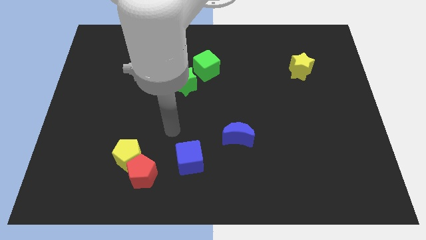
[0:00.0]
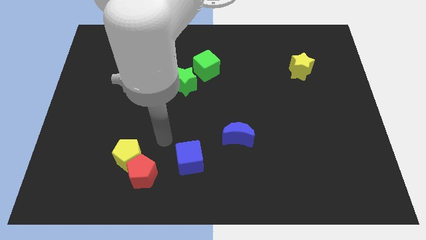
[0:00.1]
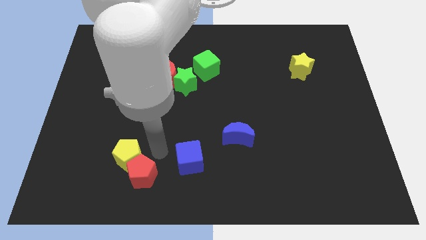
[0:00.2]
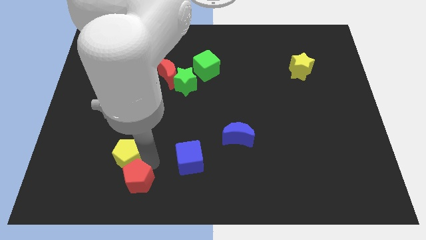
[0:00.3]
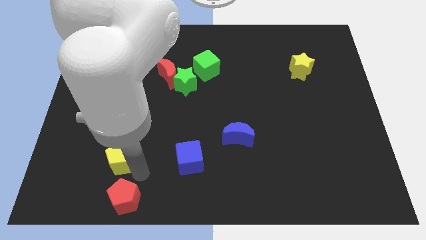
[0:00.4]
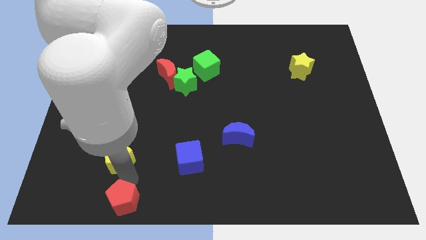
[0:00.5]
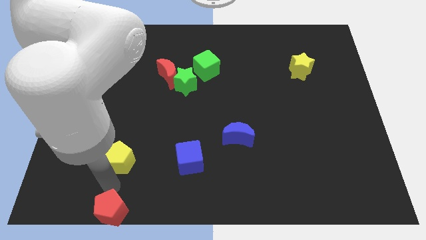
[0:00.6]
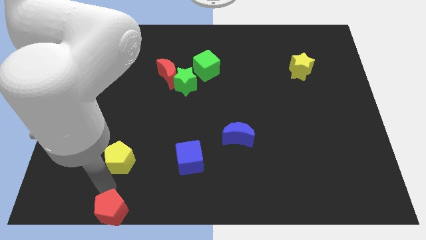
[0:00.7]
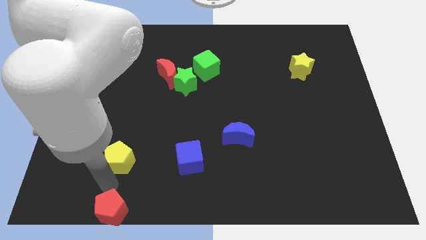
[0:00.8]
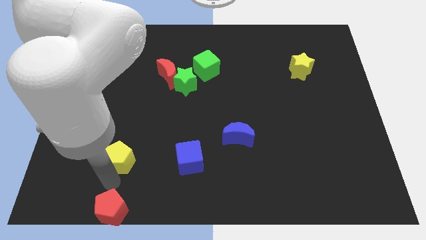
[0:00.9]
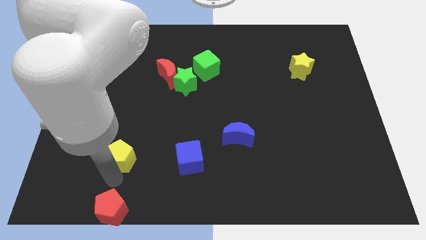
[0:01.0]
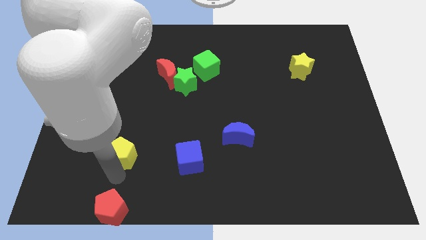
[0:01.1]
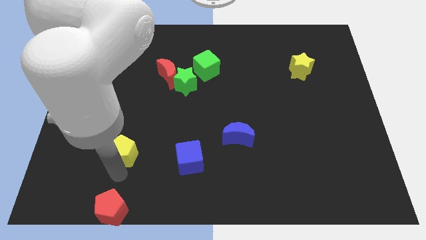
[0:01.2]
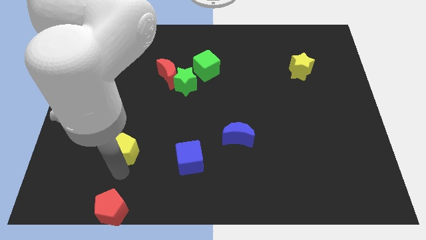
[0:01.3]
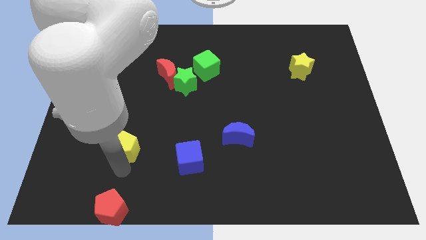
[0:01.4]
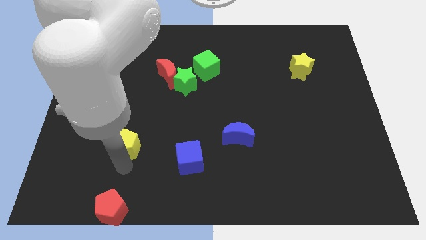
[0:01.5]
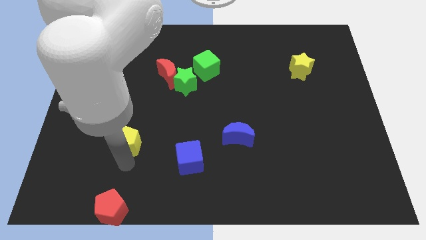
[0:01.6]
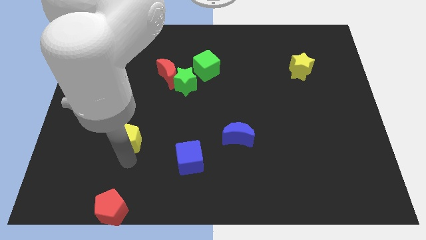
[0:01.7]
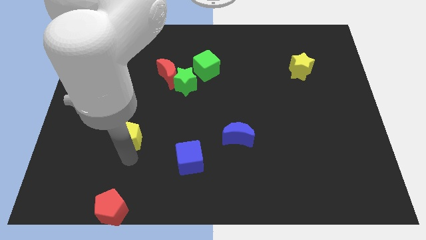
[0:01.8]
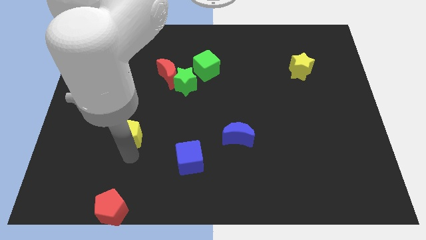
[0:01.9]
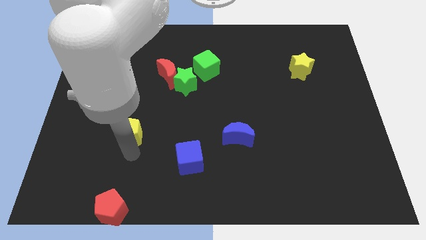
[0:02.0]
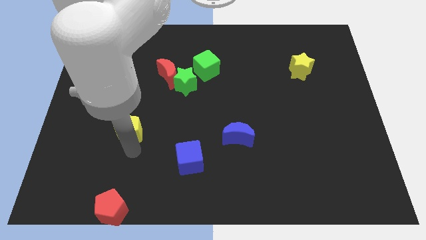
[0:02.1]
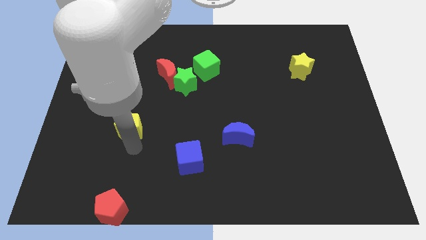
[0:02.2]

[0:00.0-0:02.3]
slide the yellow pentagon a little up

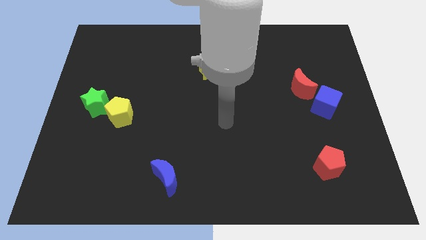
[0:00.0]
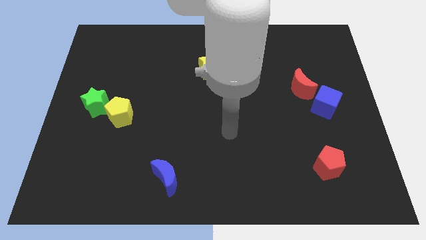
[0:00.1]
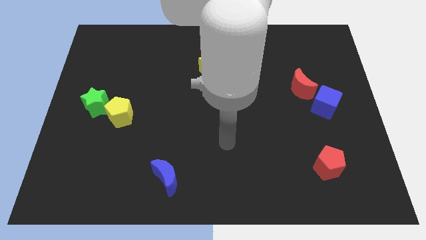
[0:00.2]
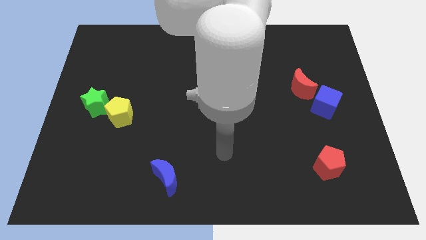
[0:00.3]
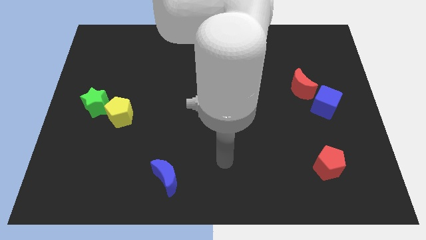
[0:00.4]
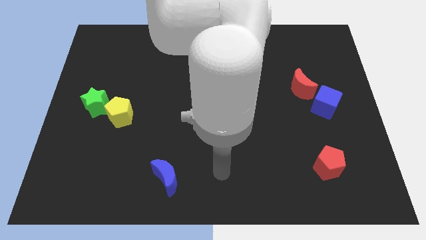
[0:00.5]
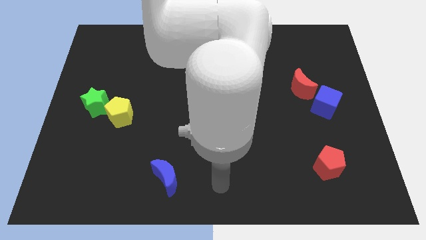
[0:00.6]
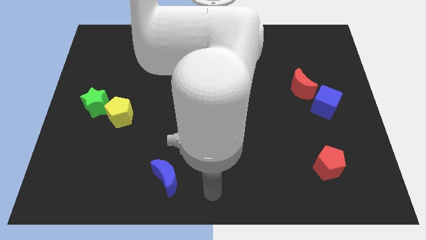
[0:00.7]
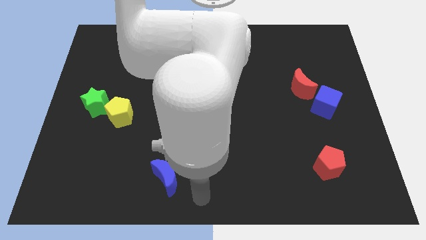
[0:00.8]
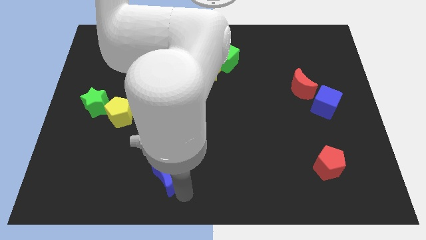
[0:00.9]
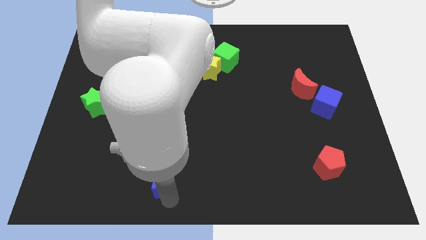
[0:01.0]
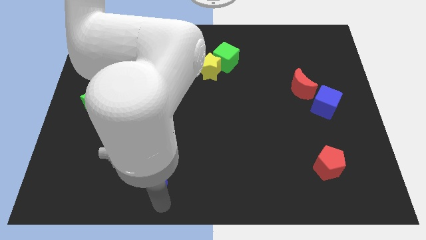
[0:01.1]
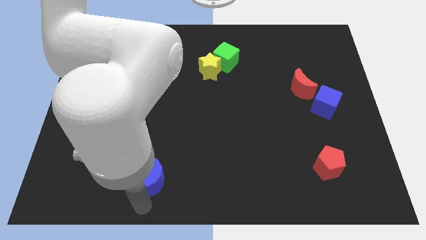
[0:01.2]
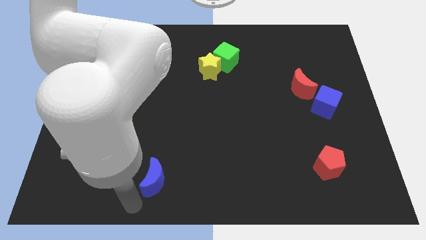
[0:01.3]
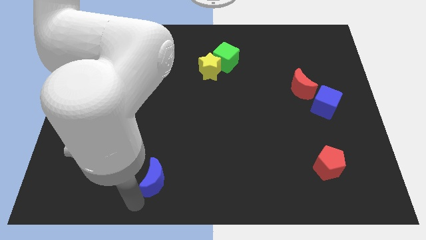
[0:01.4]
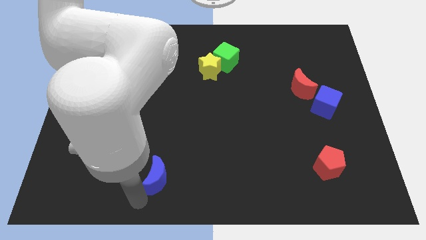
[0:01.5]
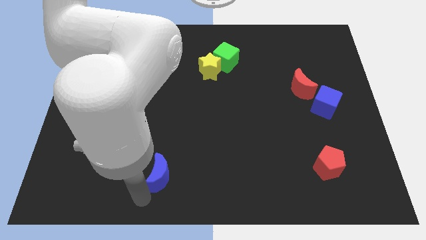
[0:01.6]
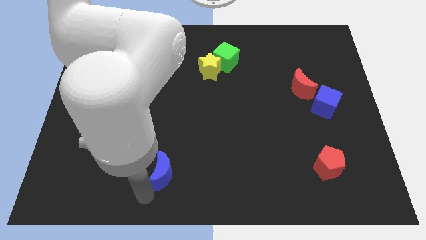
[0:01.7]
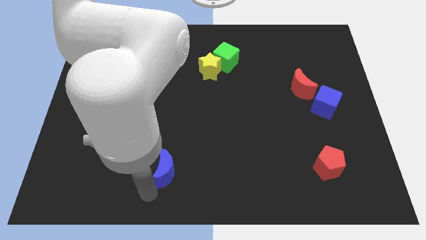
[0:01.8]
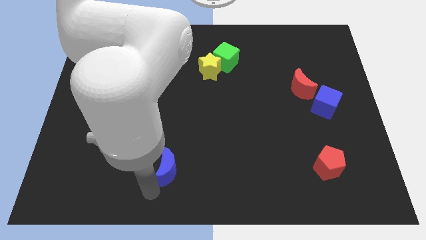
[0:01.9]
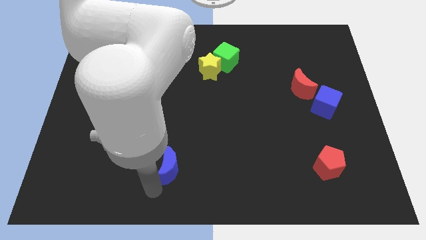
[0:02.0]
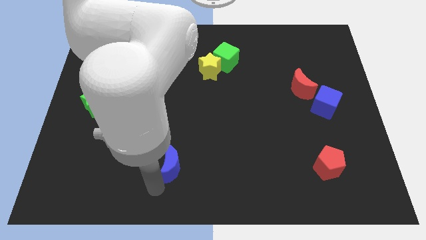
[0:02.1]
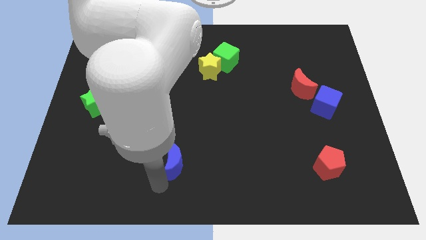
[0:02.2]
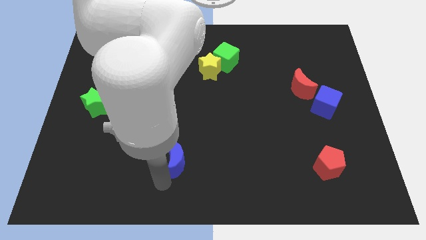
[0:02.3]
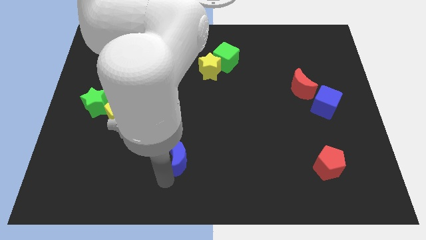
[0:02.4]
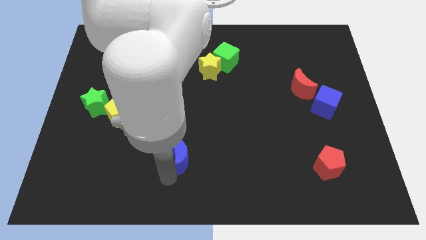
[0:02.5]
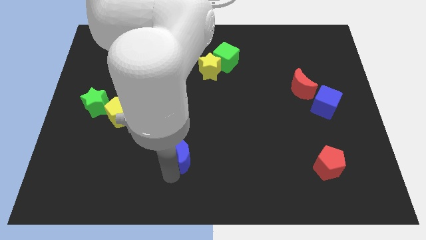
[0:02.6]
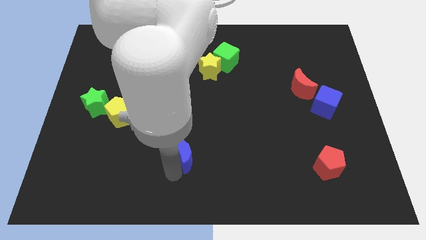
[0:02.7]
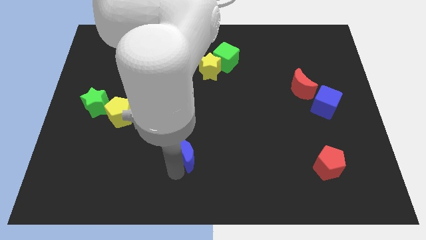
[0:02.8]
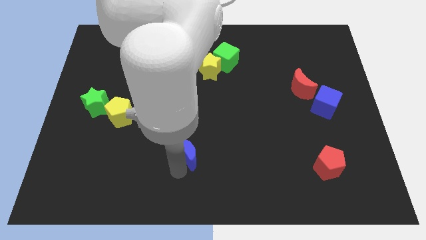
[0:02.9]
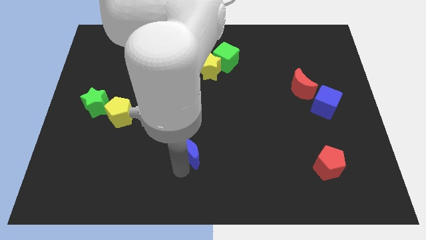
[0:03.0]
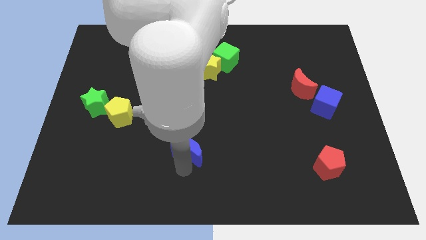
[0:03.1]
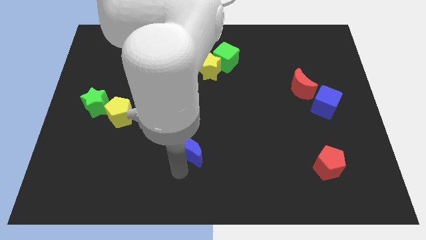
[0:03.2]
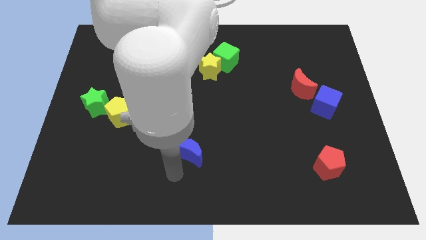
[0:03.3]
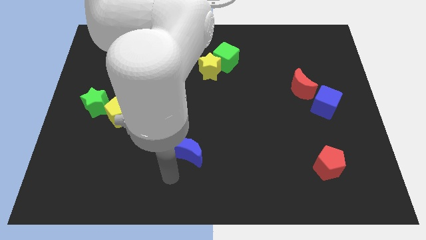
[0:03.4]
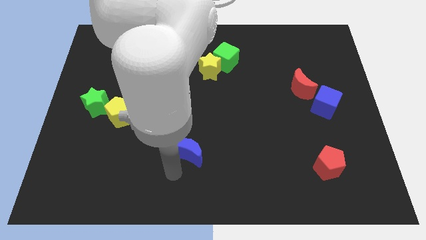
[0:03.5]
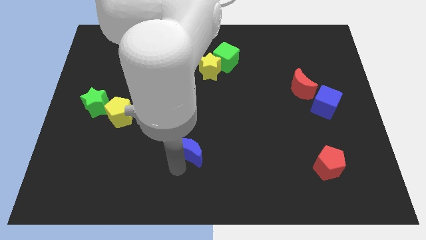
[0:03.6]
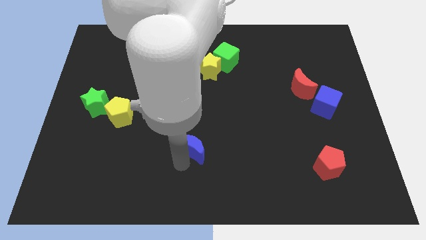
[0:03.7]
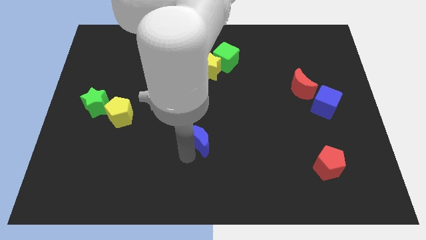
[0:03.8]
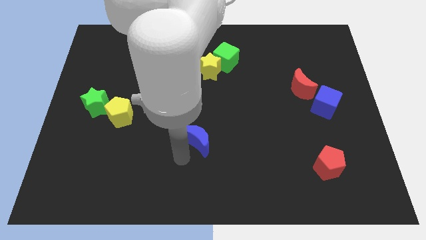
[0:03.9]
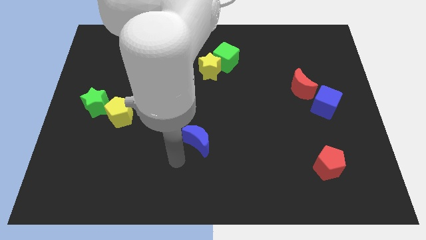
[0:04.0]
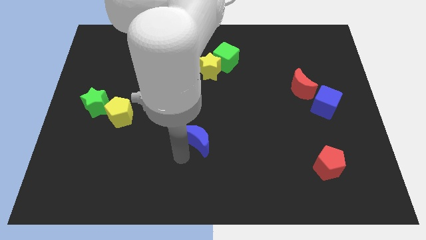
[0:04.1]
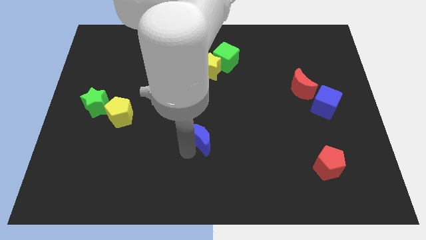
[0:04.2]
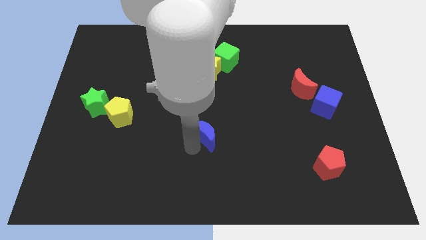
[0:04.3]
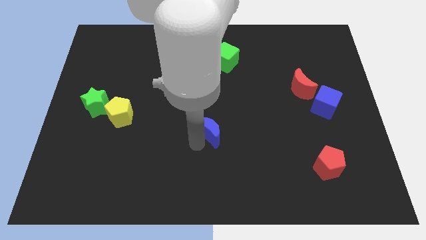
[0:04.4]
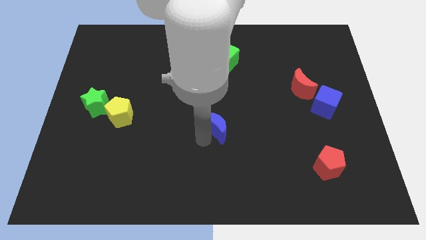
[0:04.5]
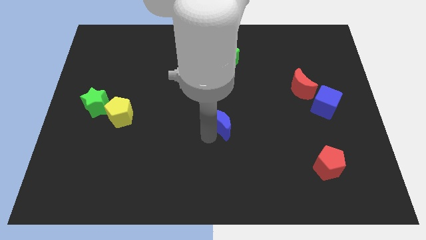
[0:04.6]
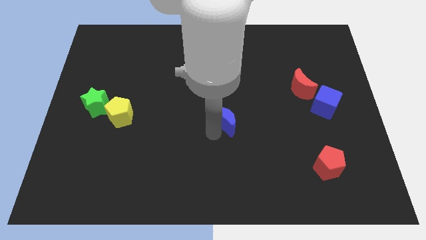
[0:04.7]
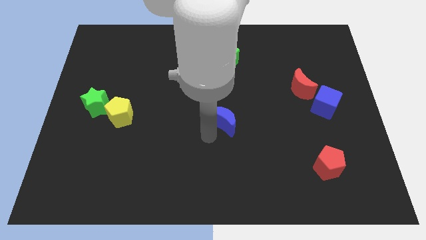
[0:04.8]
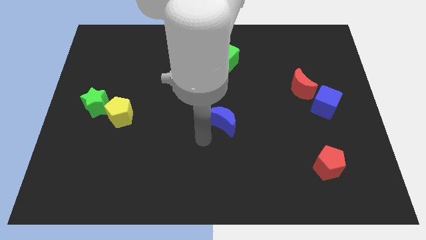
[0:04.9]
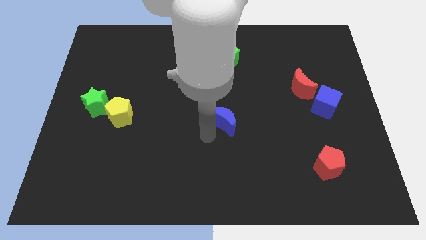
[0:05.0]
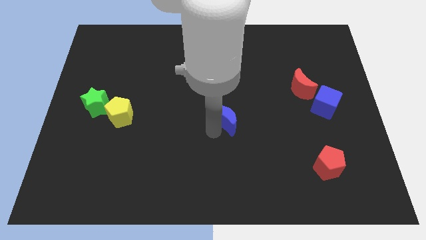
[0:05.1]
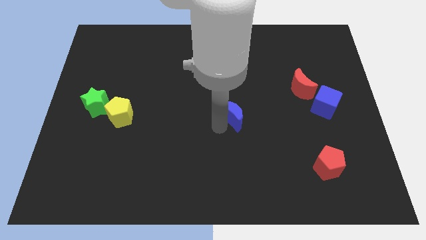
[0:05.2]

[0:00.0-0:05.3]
push the blue moon upwards and to the right

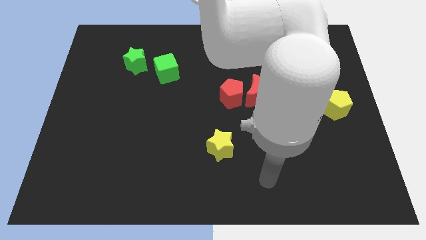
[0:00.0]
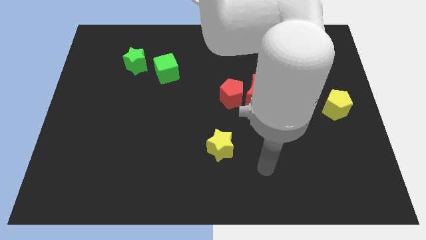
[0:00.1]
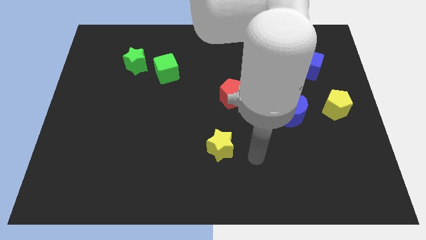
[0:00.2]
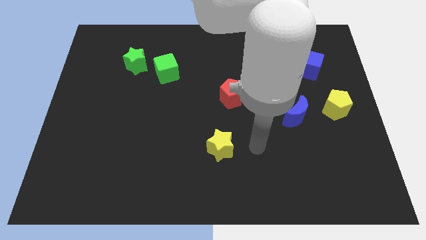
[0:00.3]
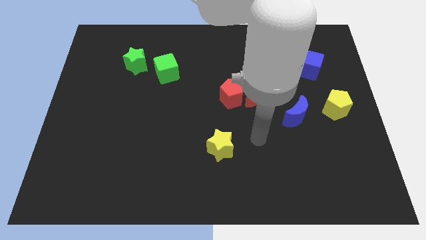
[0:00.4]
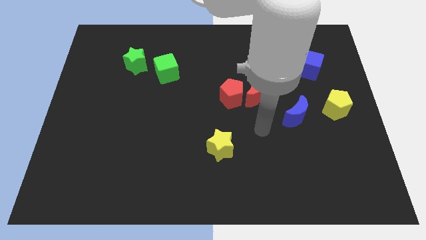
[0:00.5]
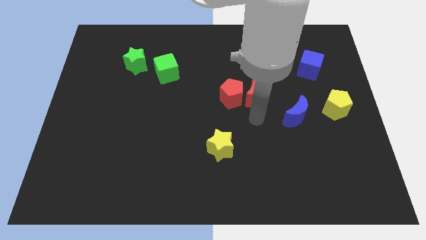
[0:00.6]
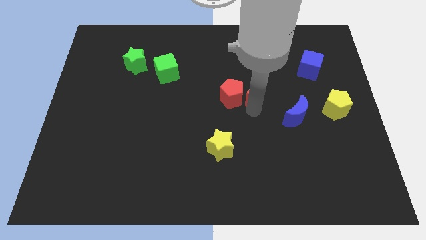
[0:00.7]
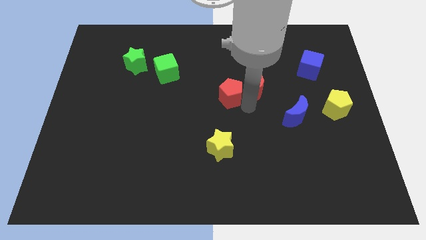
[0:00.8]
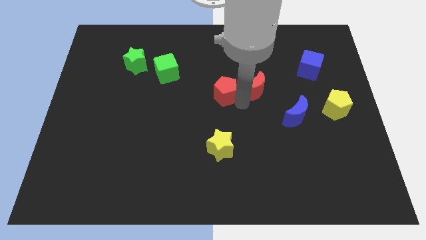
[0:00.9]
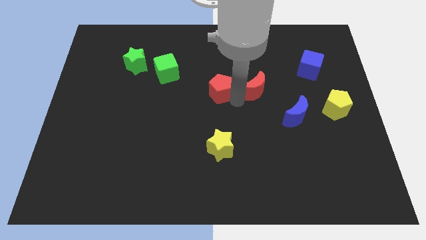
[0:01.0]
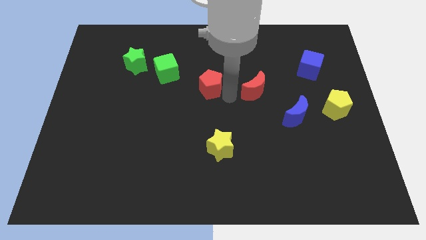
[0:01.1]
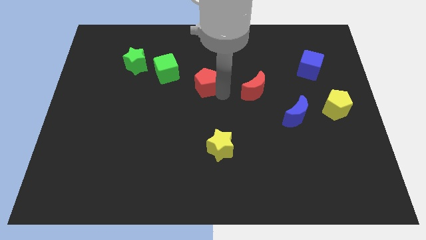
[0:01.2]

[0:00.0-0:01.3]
slightly slide the red pentagon up and left
